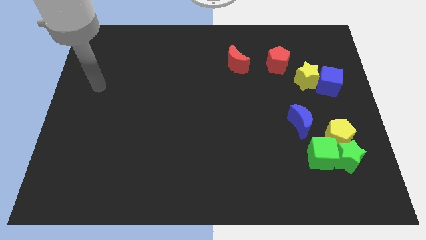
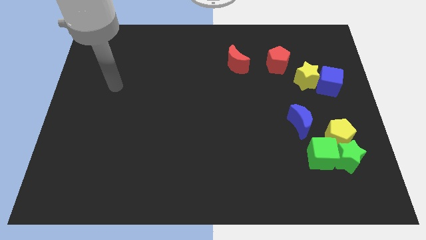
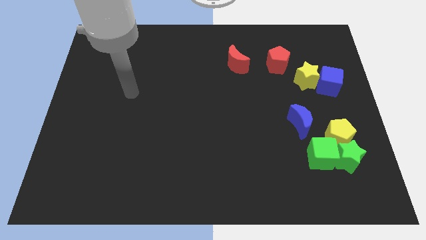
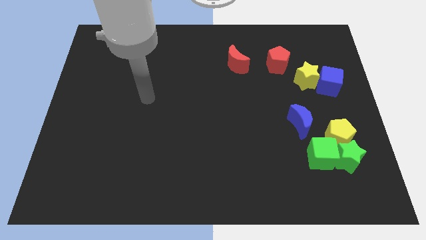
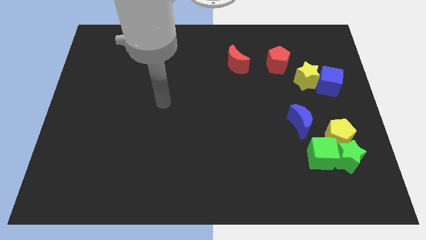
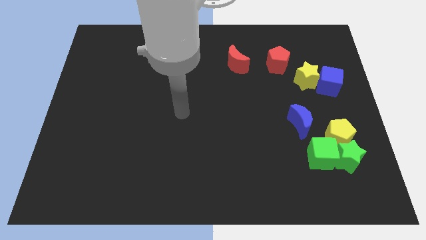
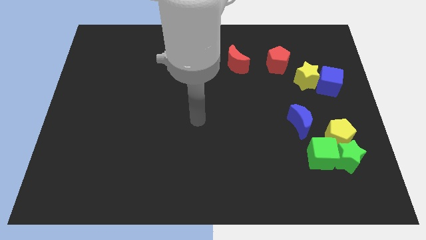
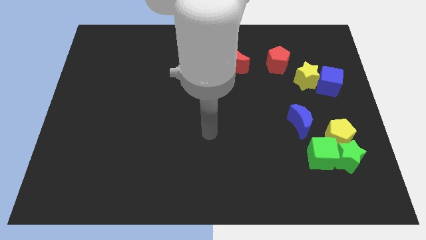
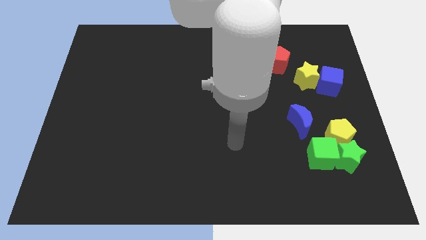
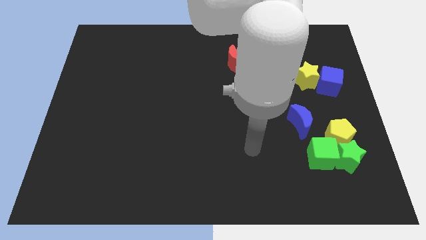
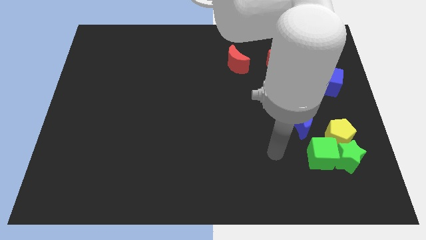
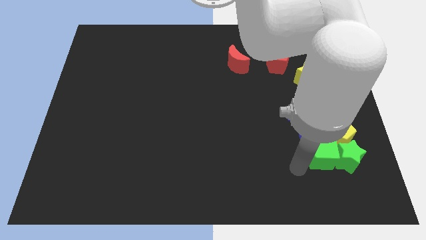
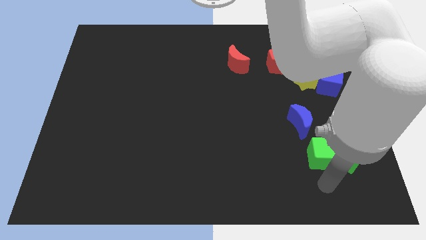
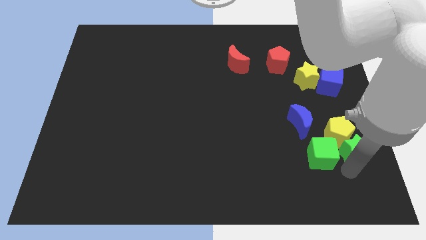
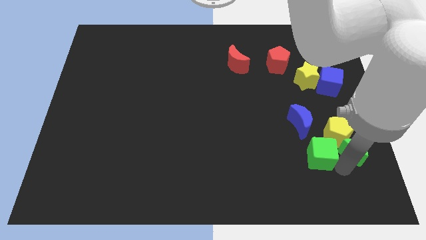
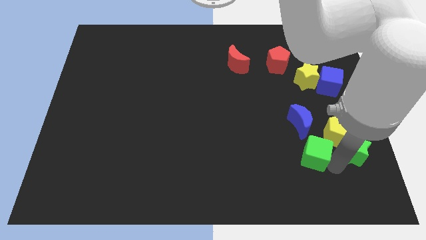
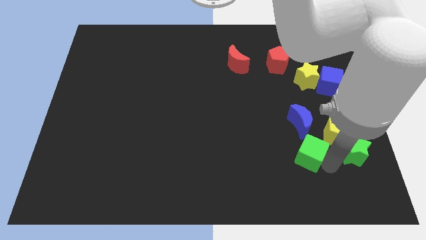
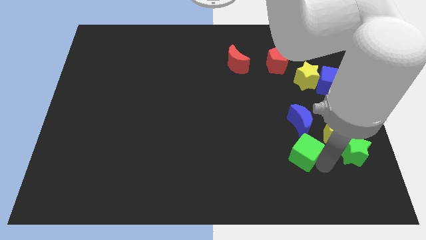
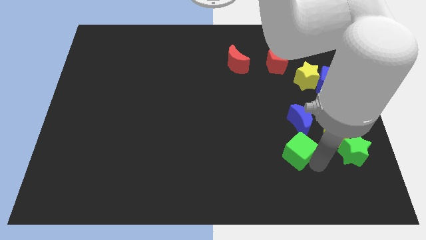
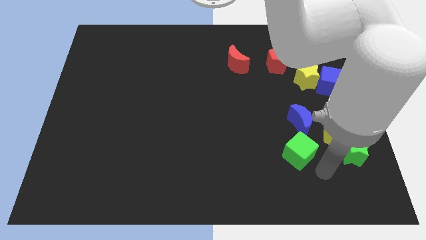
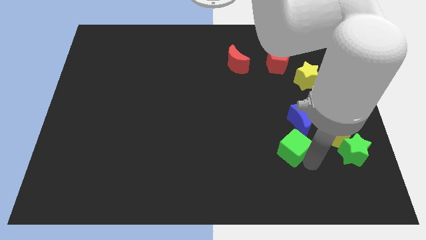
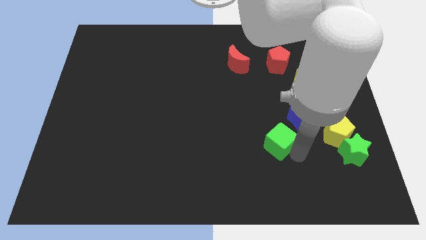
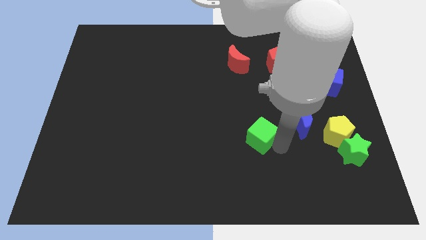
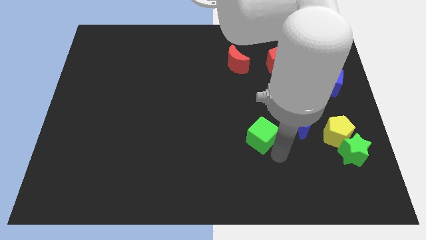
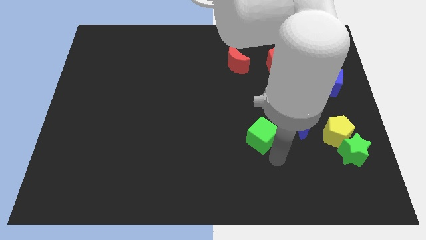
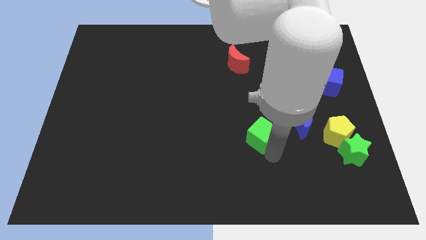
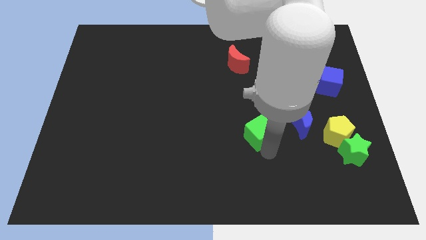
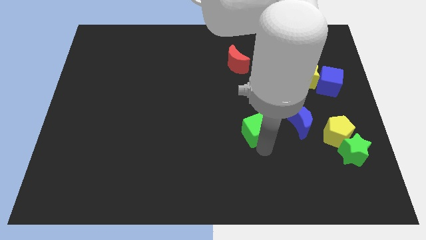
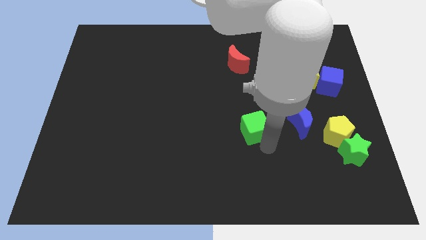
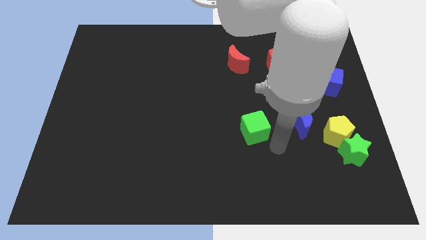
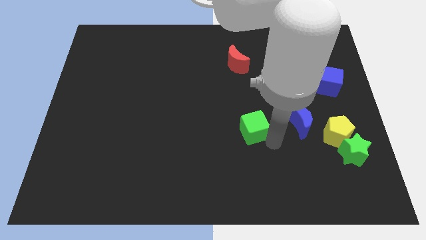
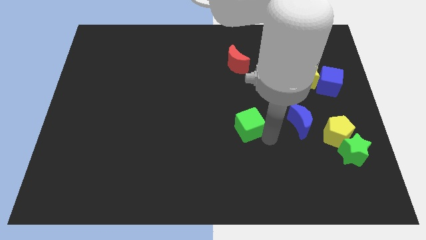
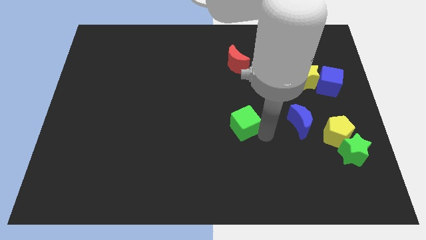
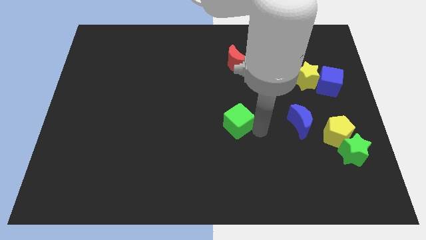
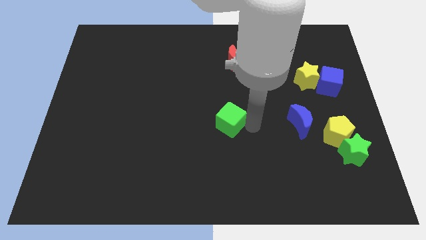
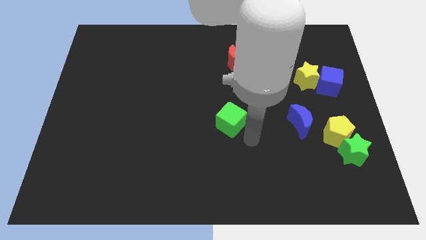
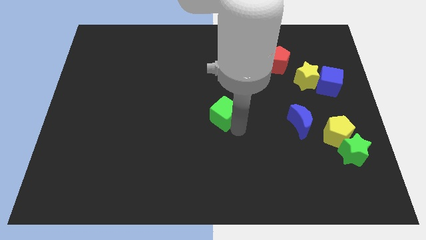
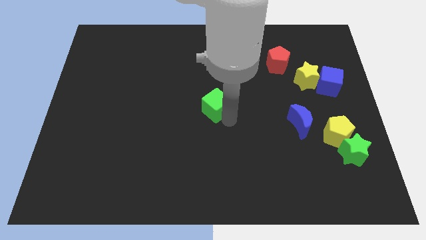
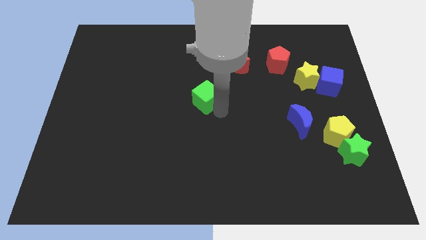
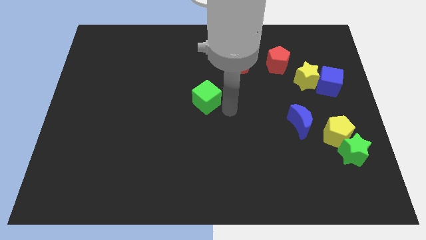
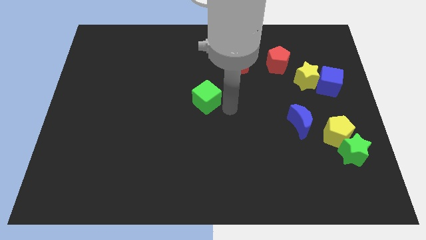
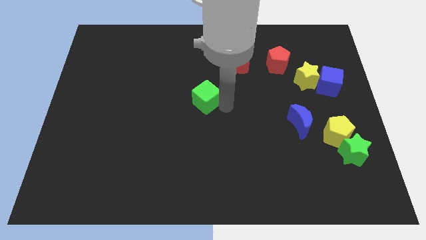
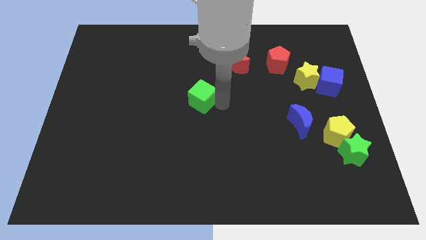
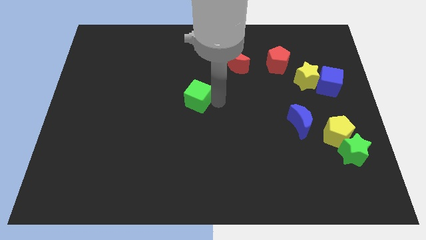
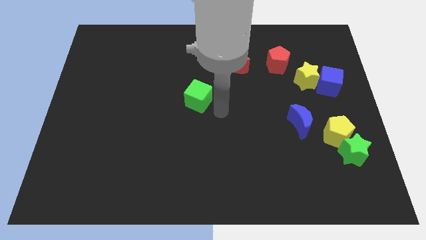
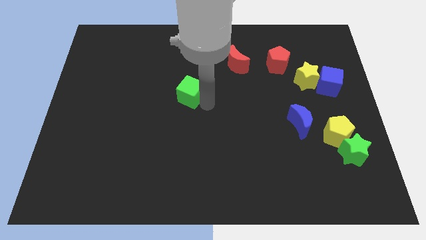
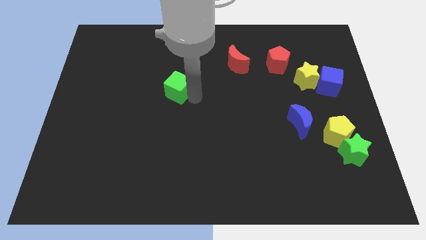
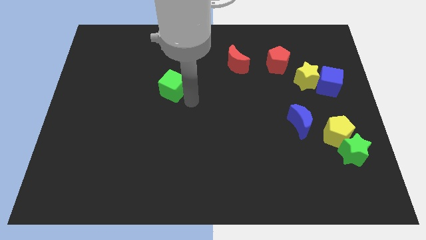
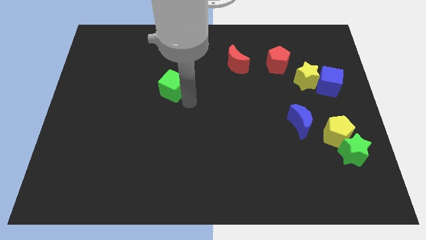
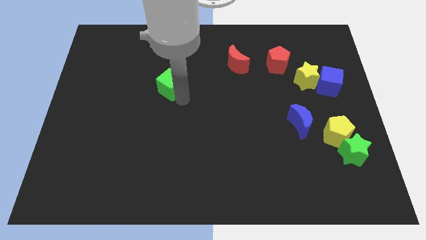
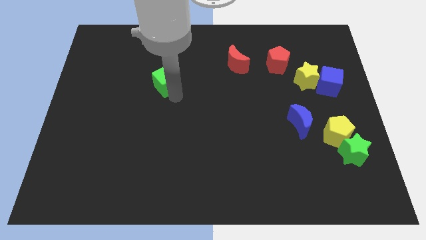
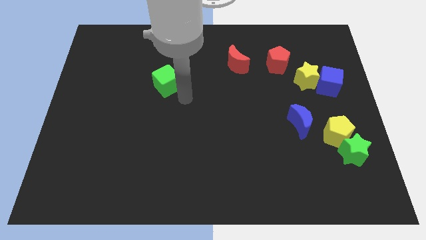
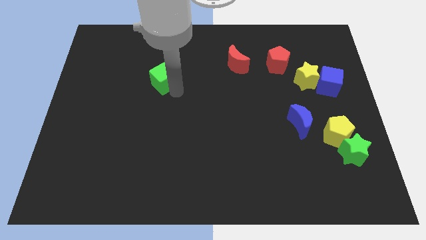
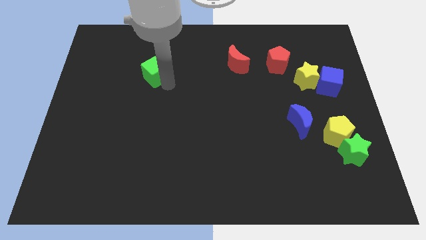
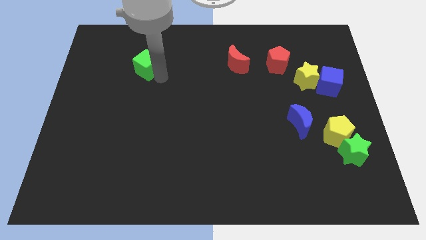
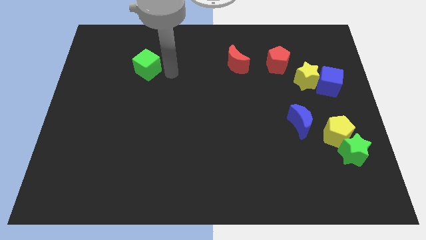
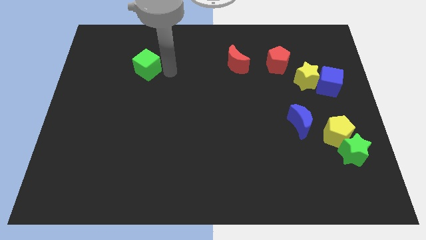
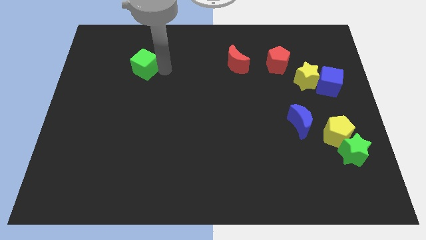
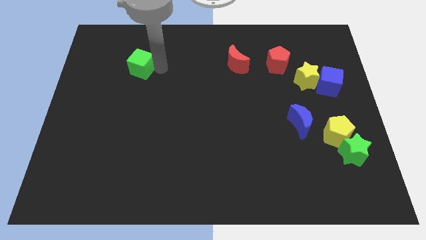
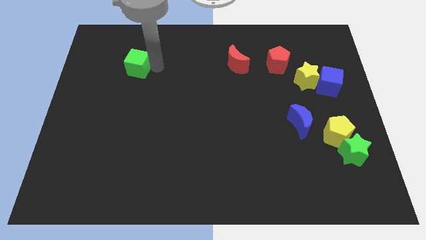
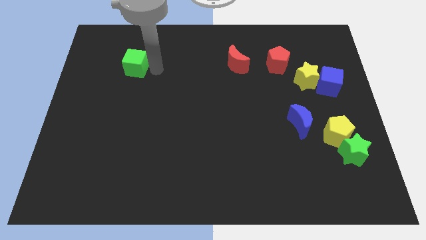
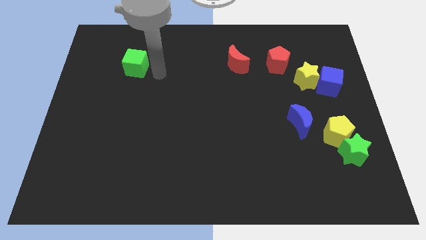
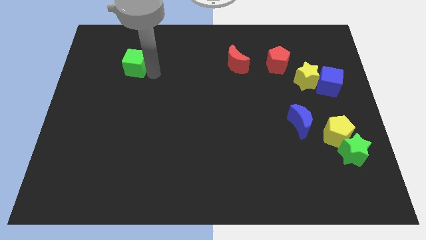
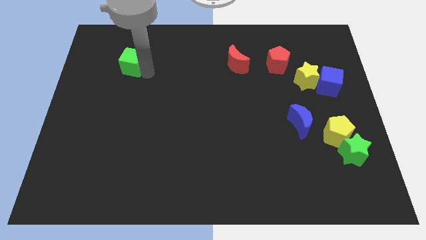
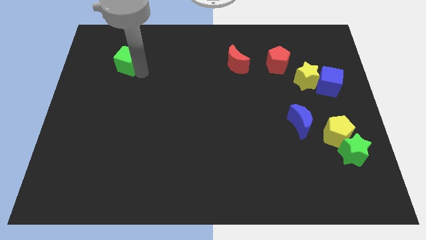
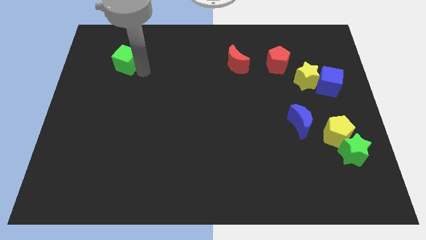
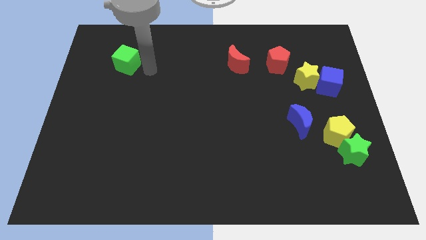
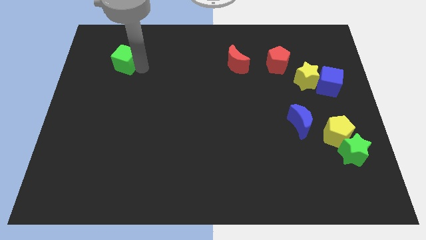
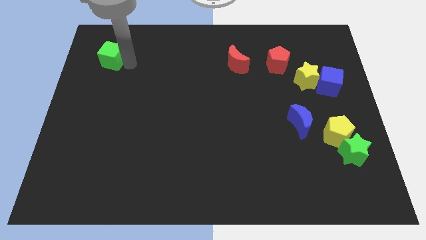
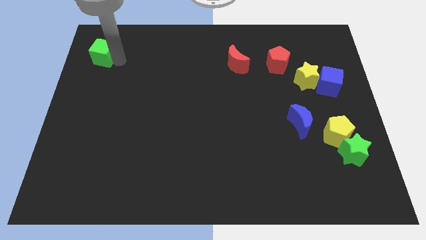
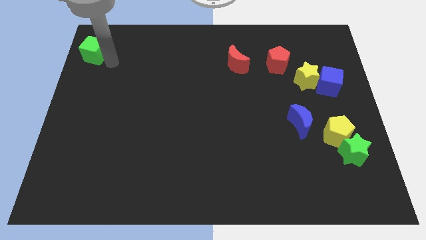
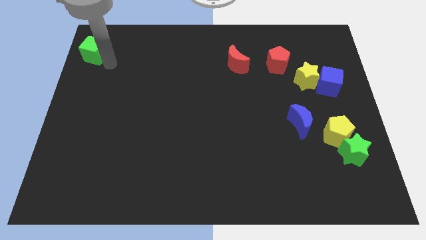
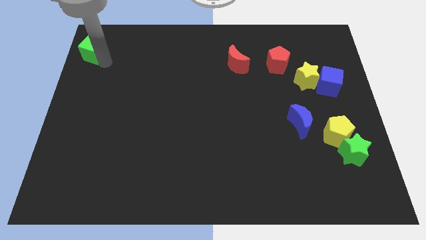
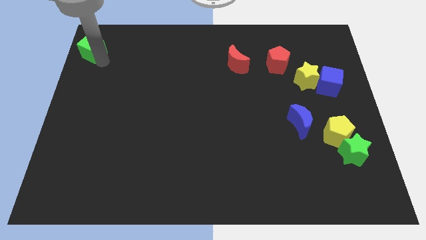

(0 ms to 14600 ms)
put the green cube to the top left corner
